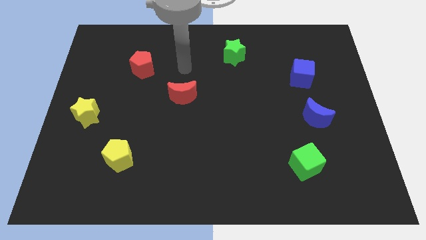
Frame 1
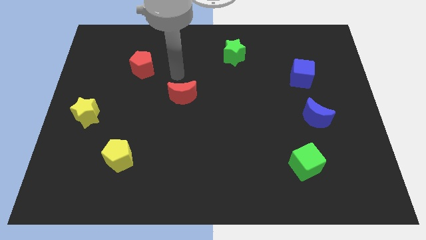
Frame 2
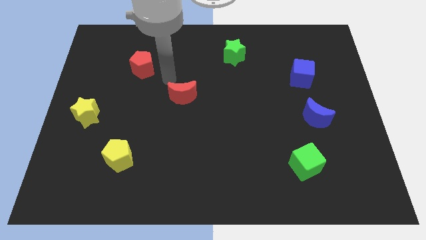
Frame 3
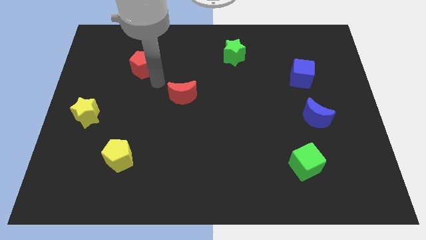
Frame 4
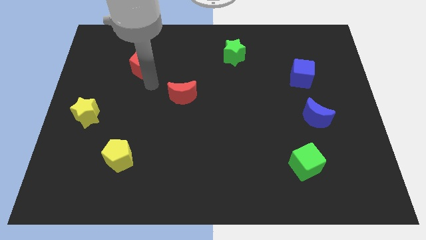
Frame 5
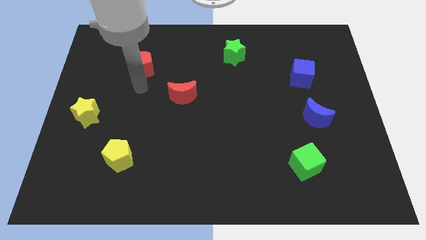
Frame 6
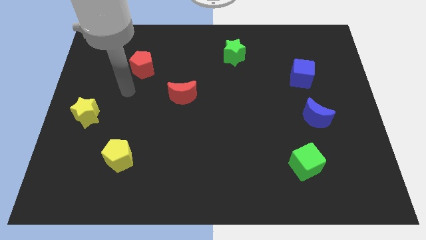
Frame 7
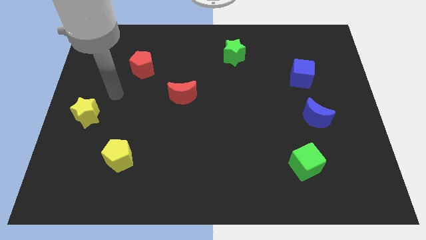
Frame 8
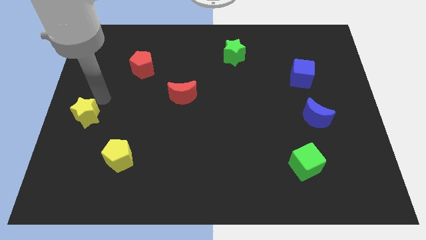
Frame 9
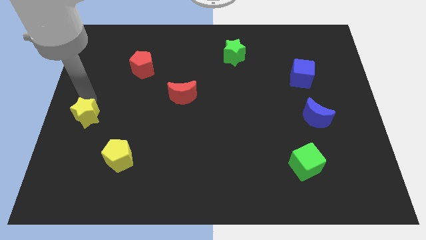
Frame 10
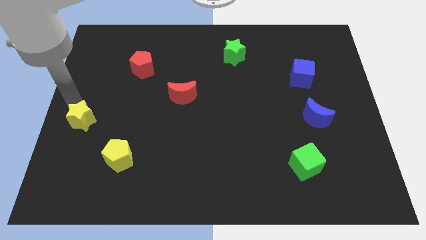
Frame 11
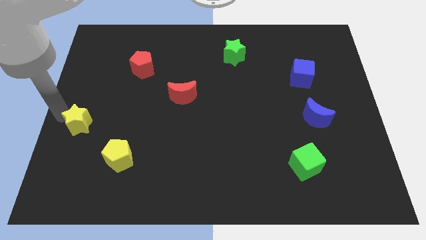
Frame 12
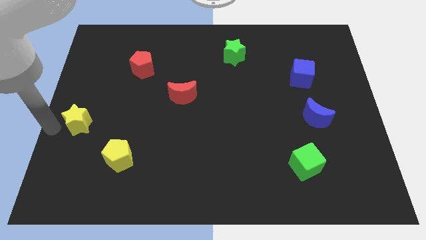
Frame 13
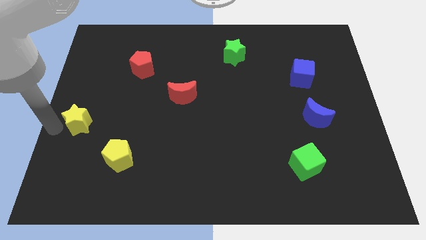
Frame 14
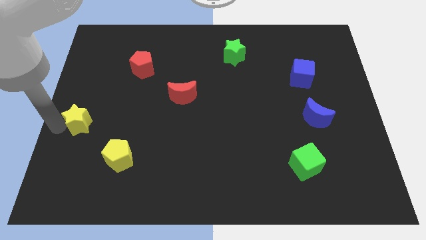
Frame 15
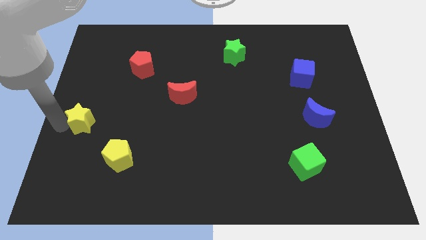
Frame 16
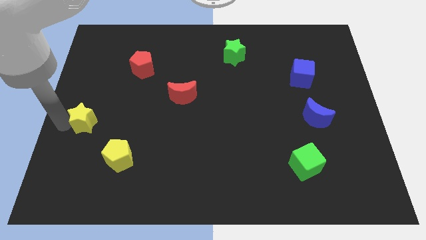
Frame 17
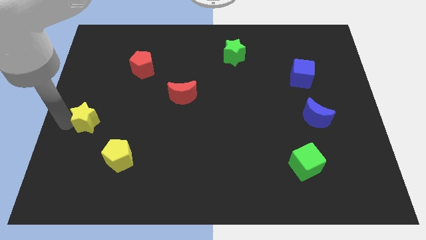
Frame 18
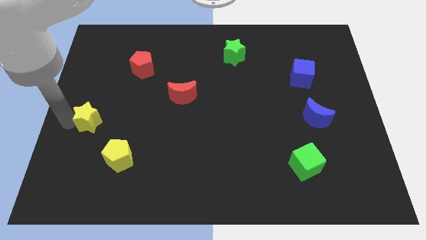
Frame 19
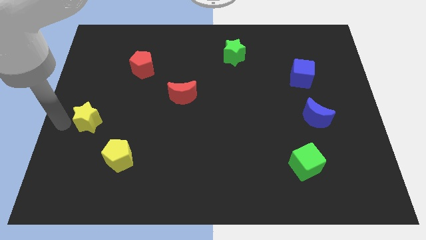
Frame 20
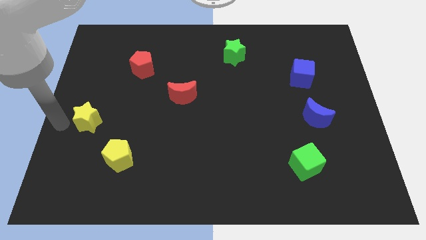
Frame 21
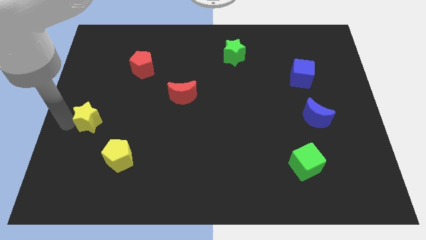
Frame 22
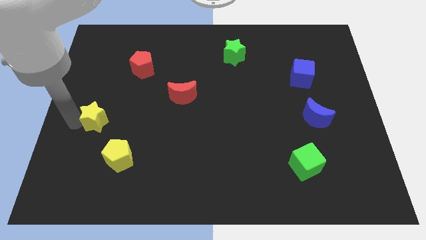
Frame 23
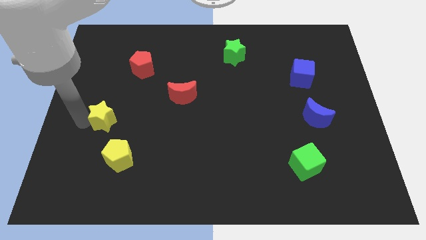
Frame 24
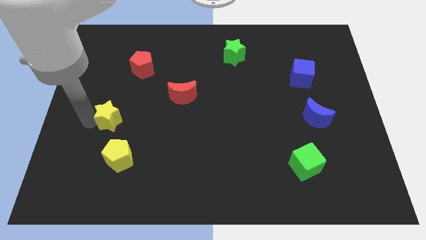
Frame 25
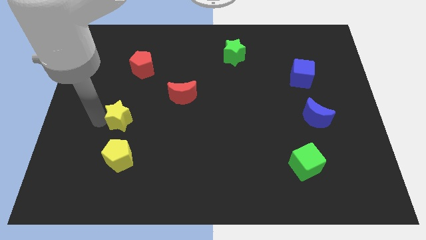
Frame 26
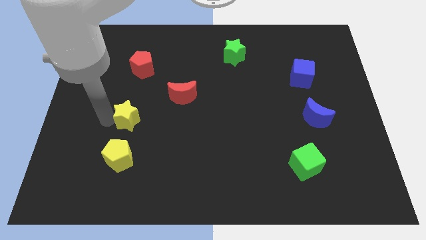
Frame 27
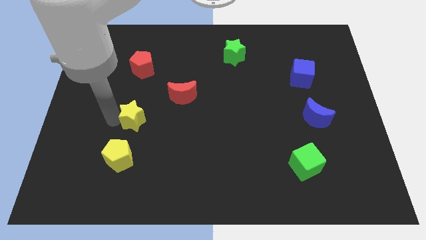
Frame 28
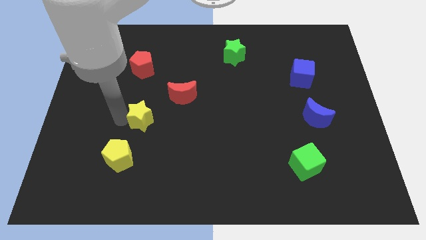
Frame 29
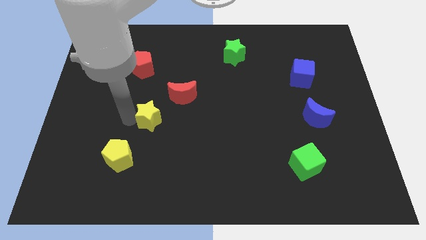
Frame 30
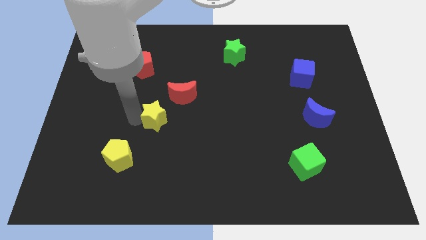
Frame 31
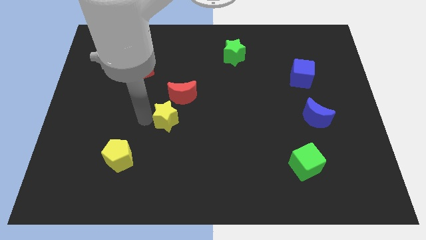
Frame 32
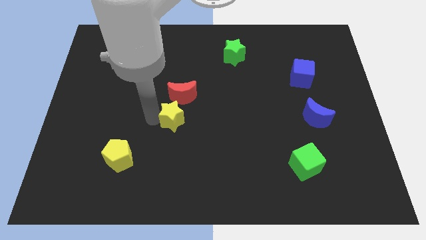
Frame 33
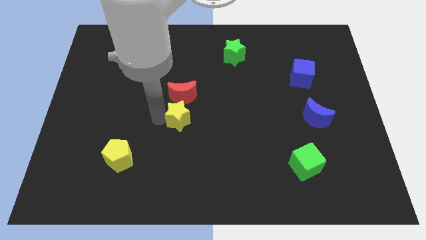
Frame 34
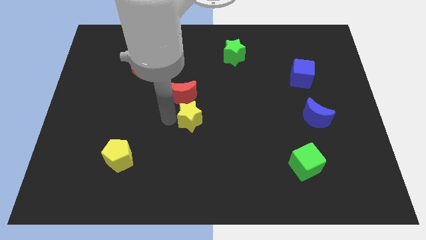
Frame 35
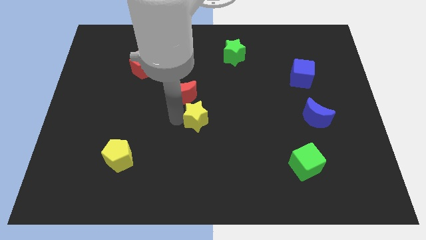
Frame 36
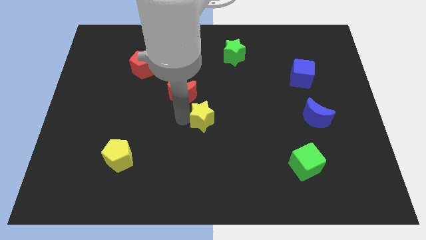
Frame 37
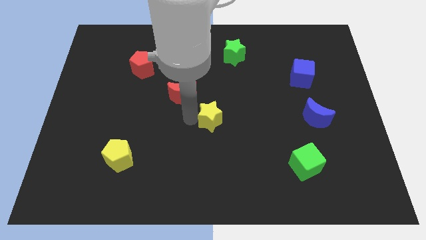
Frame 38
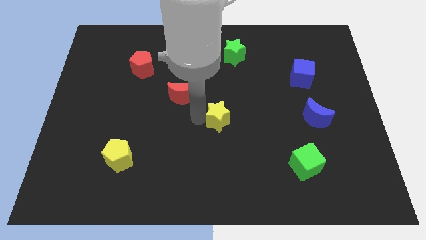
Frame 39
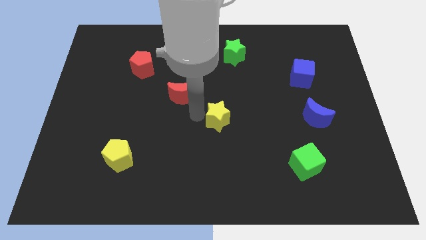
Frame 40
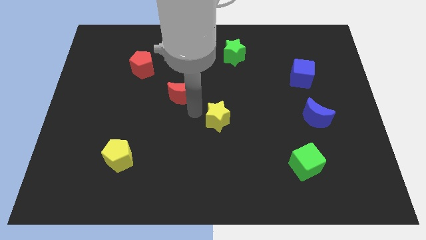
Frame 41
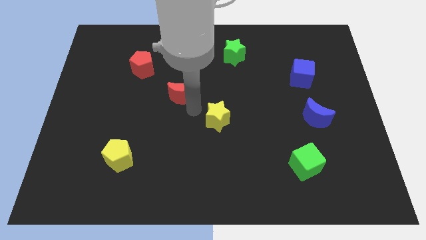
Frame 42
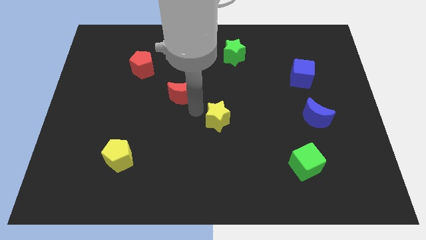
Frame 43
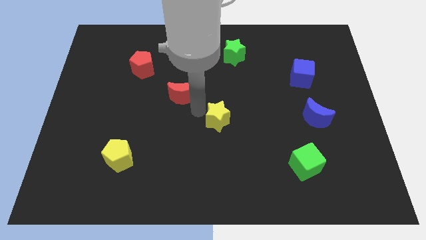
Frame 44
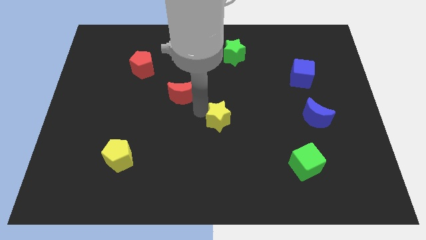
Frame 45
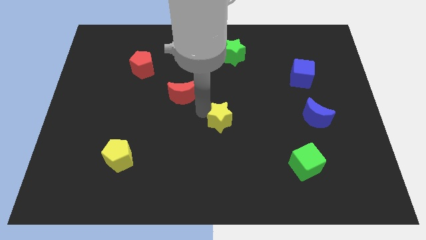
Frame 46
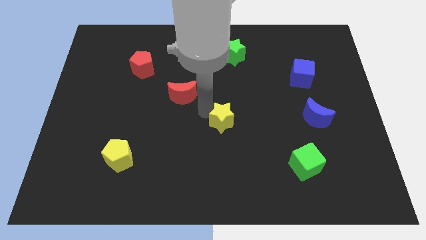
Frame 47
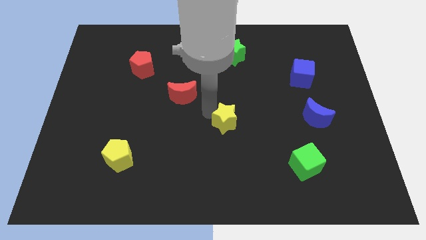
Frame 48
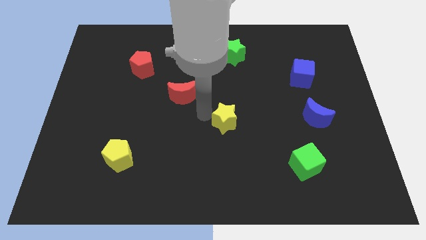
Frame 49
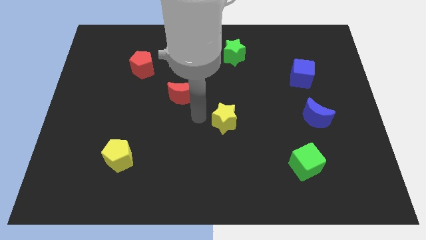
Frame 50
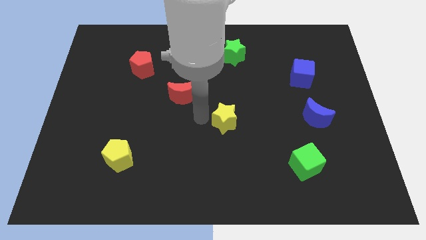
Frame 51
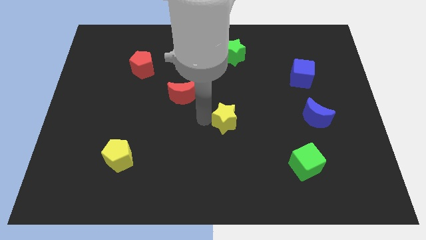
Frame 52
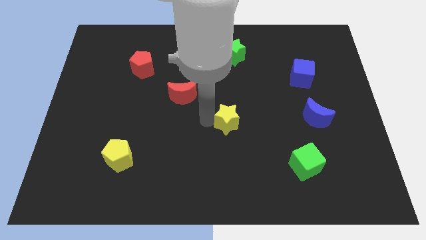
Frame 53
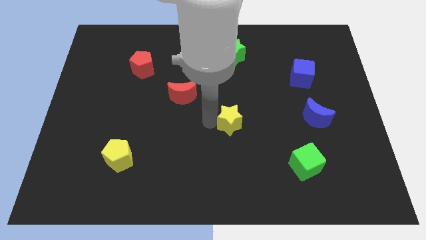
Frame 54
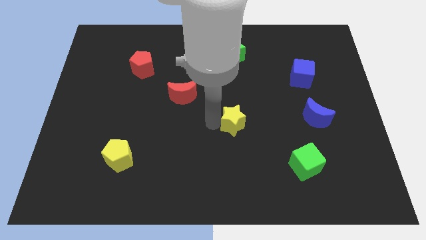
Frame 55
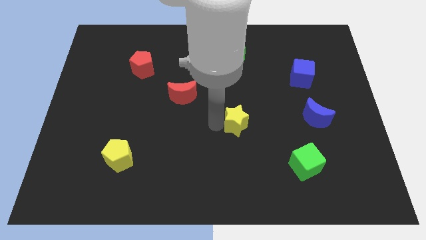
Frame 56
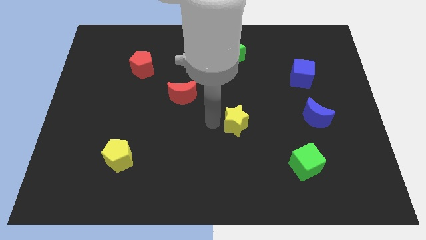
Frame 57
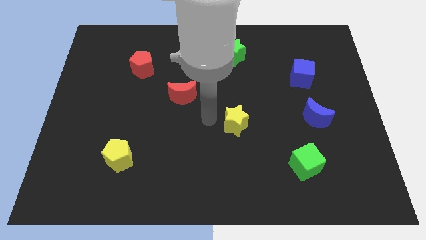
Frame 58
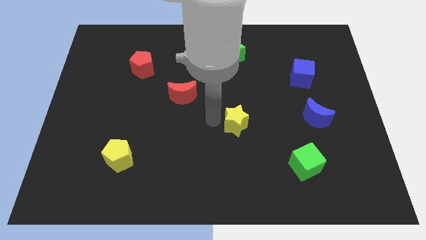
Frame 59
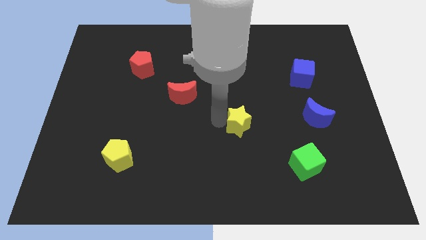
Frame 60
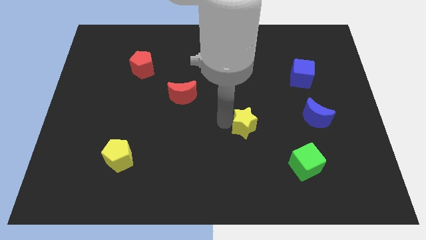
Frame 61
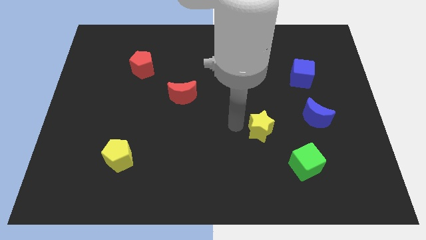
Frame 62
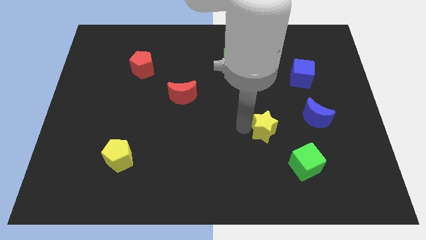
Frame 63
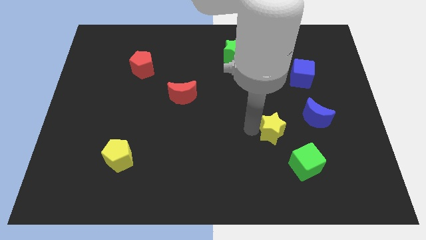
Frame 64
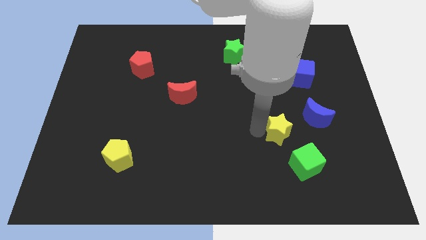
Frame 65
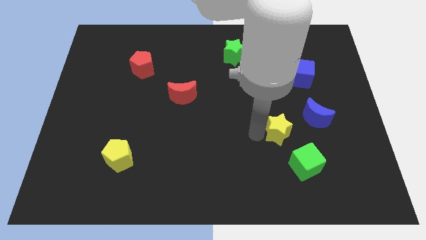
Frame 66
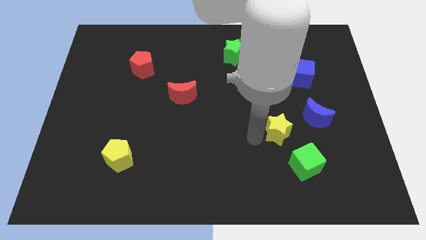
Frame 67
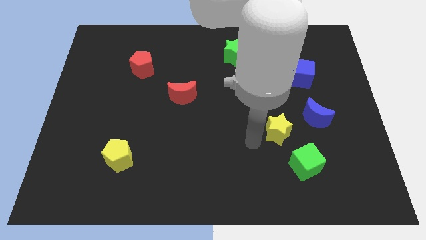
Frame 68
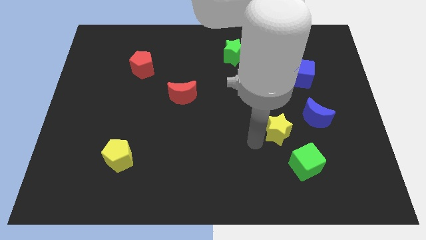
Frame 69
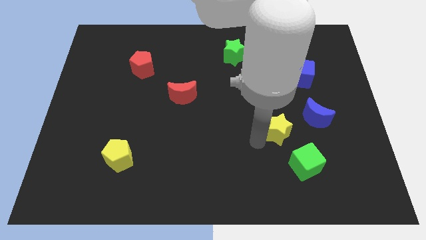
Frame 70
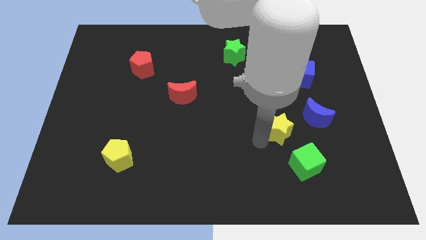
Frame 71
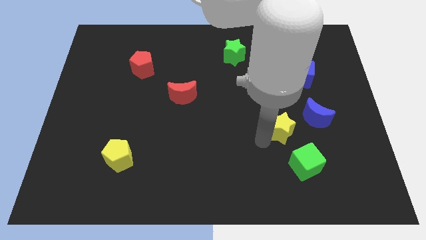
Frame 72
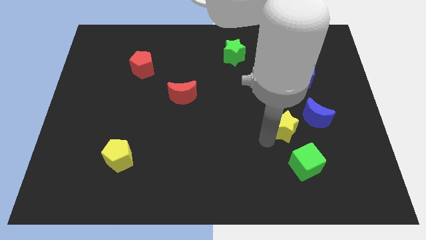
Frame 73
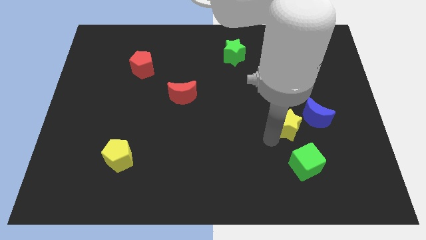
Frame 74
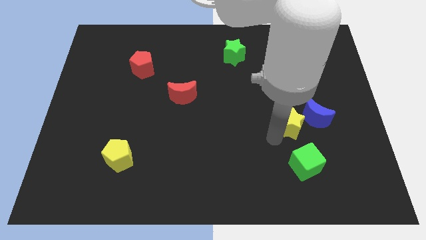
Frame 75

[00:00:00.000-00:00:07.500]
move the yellow star next to the blue moon
